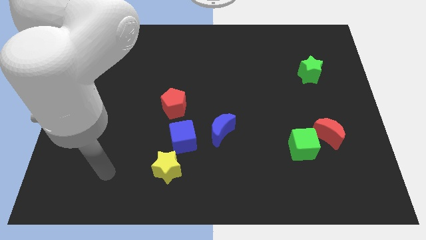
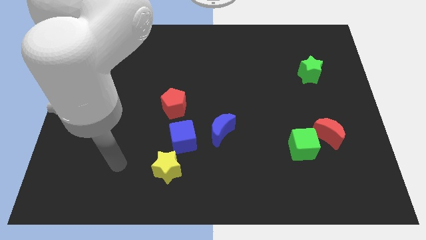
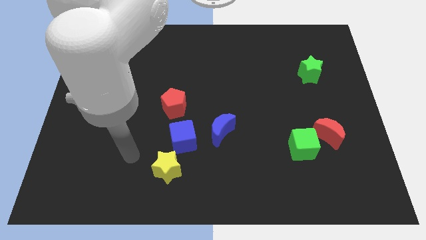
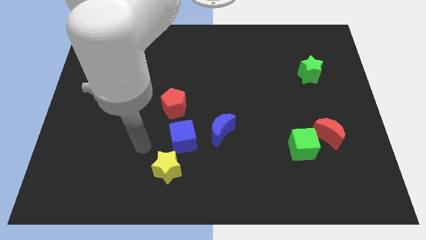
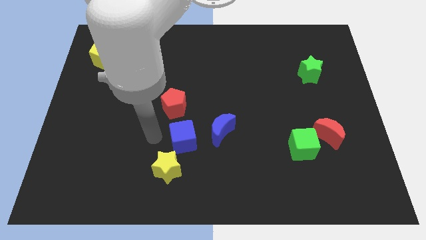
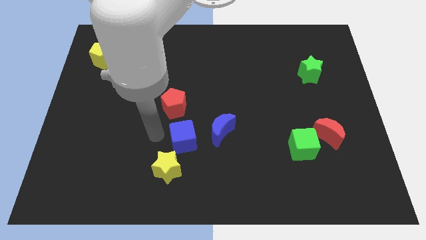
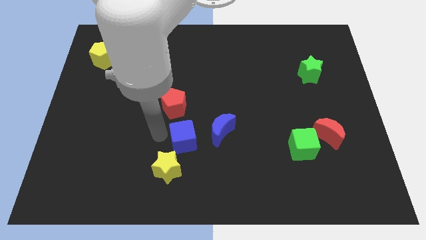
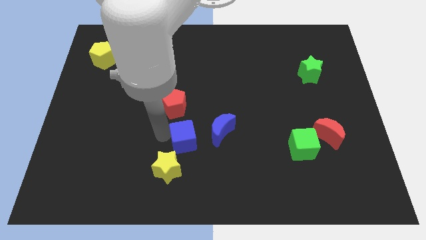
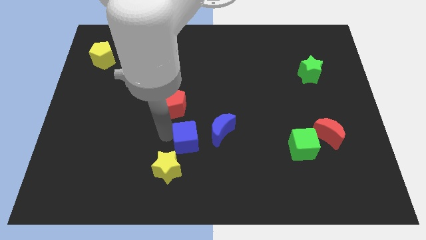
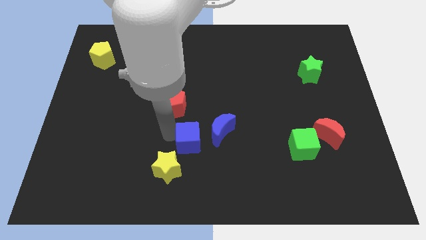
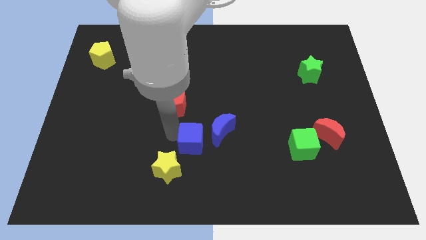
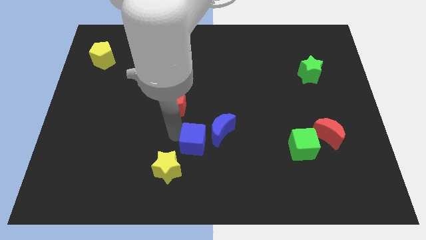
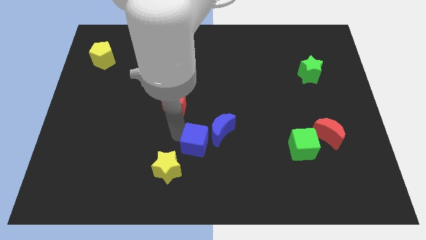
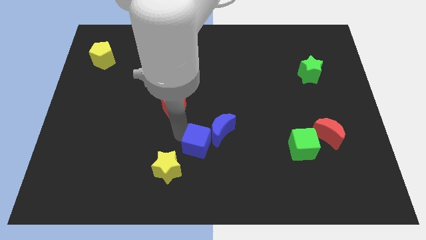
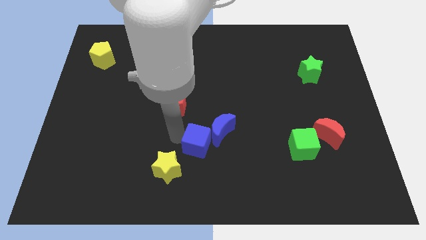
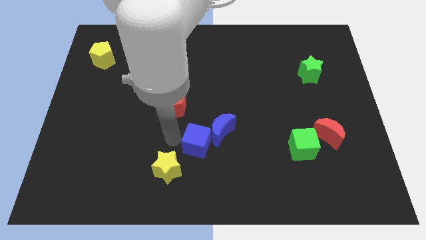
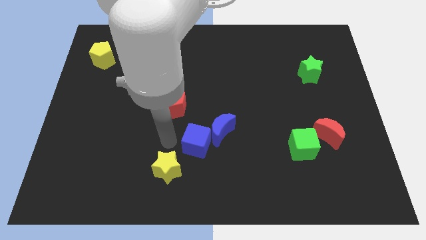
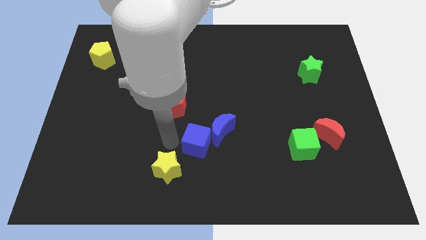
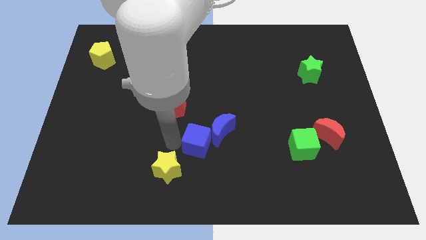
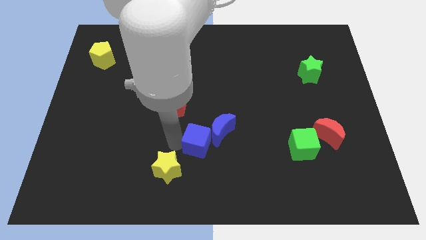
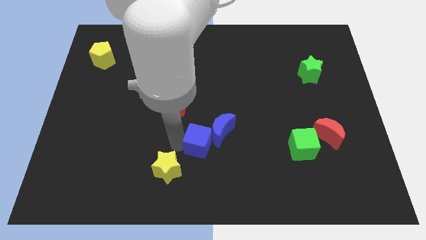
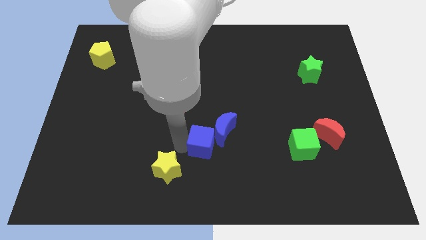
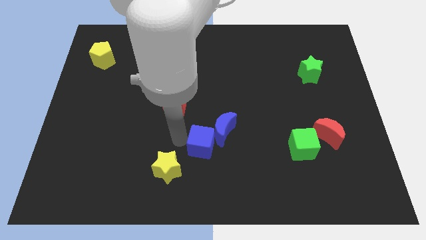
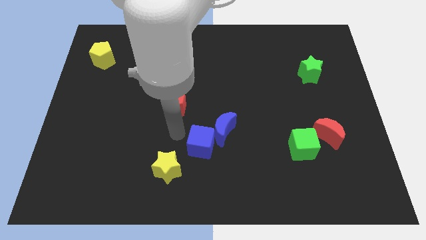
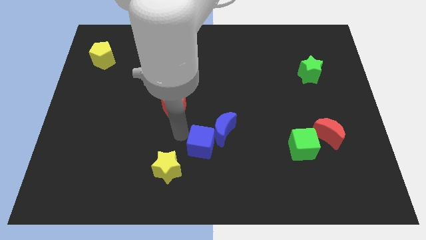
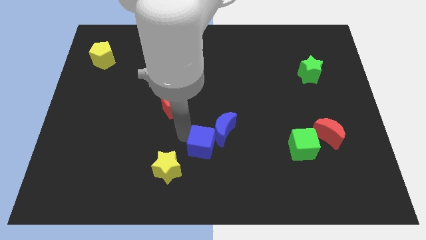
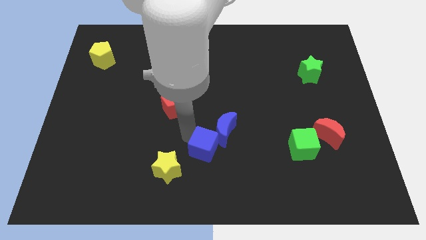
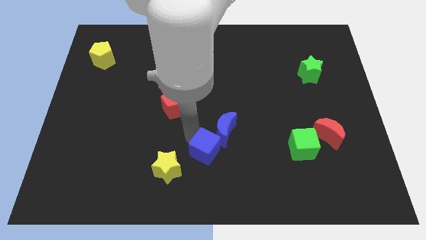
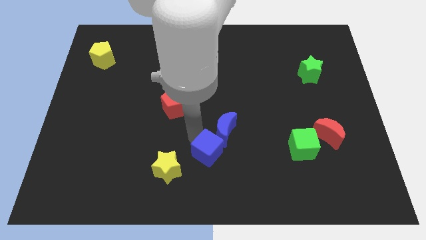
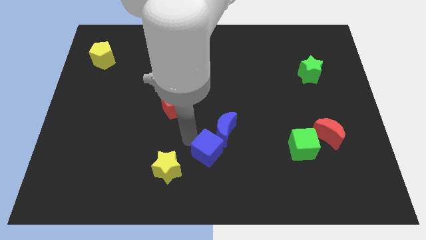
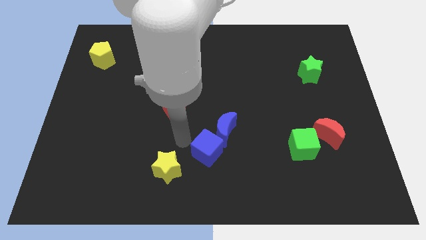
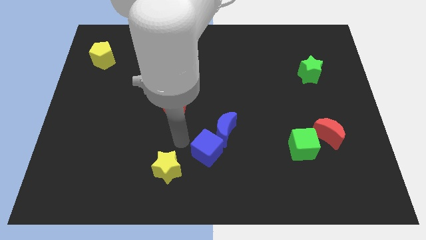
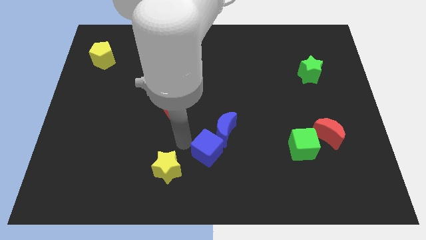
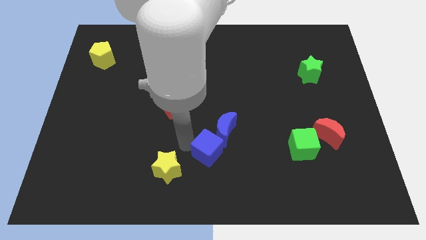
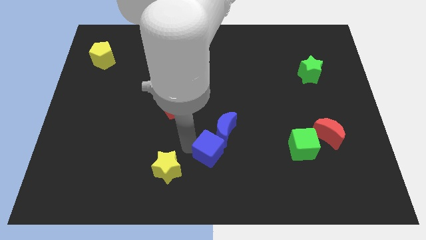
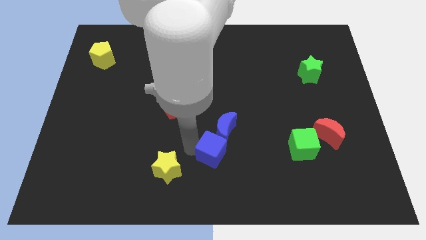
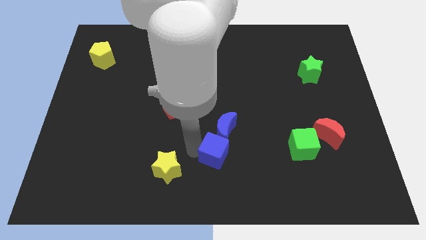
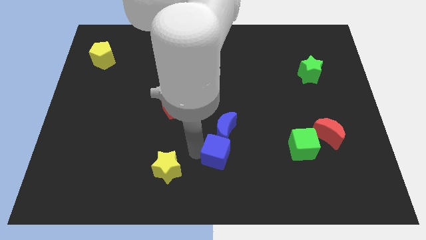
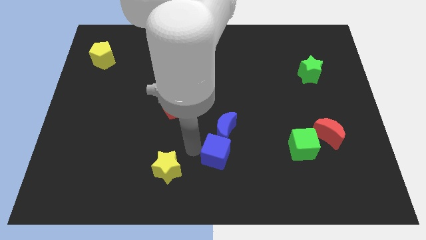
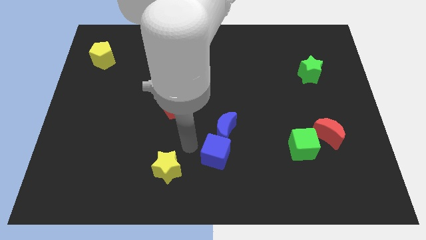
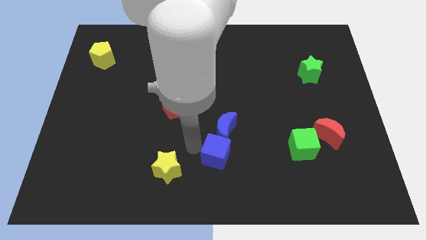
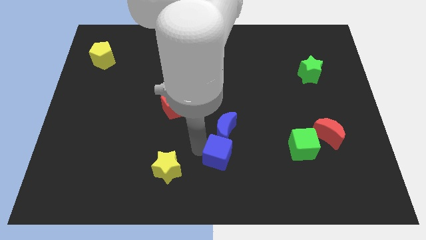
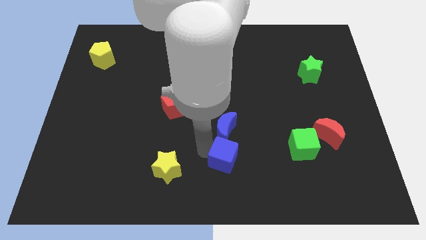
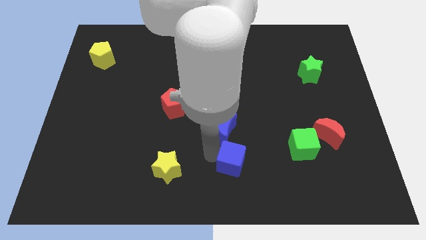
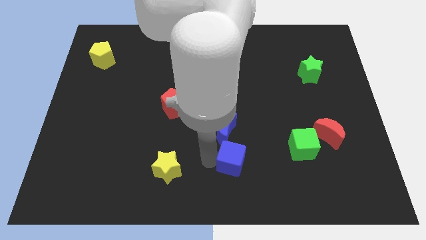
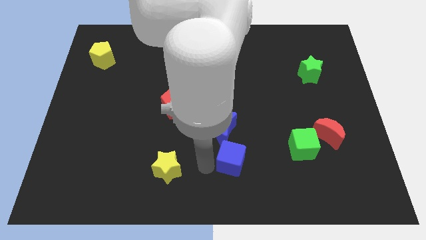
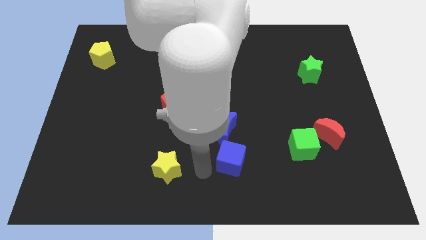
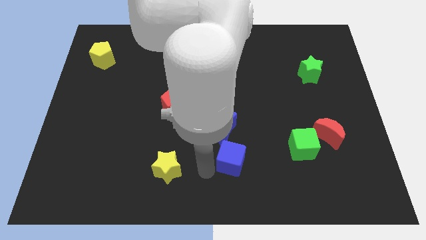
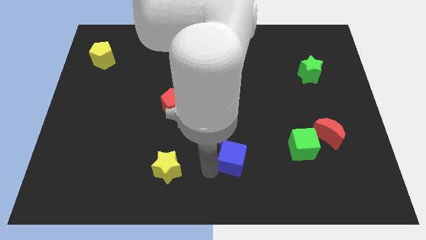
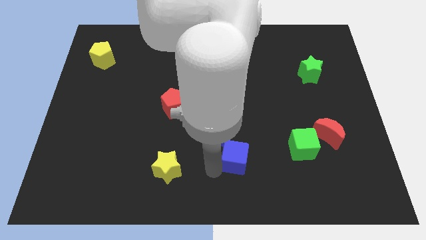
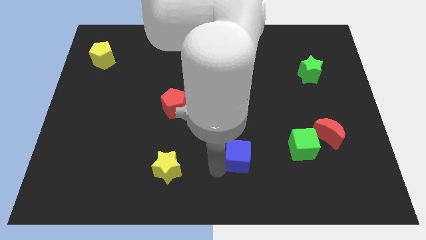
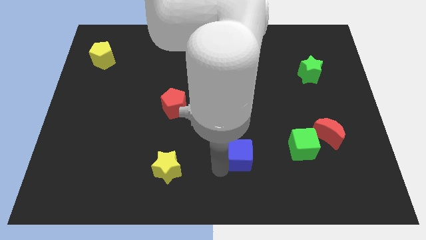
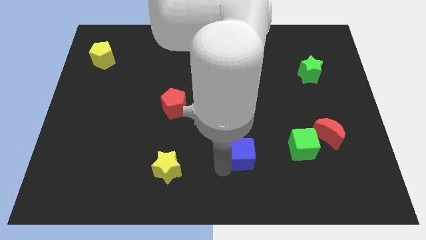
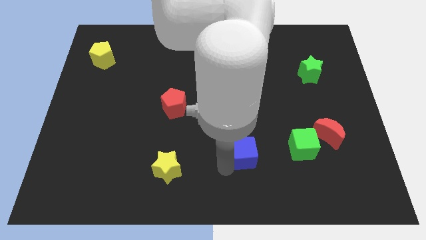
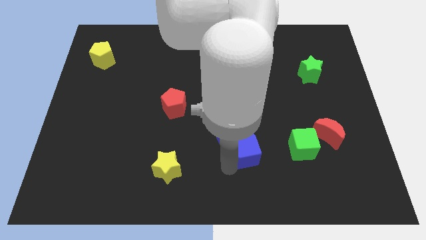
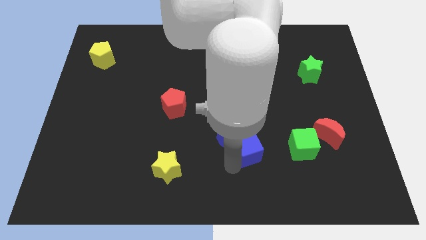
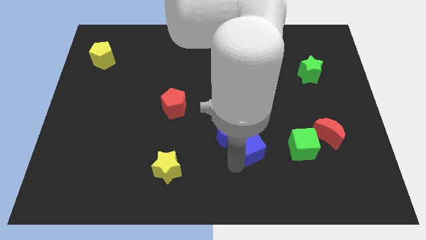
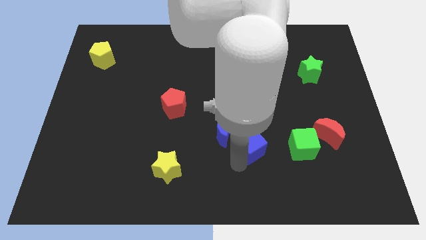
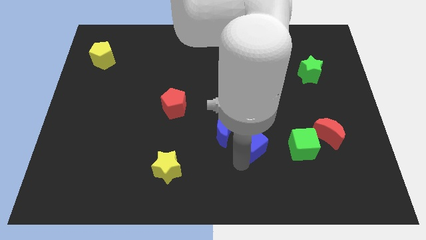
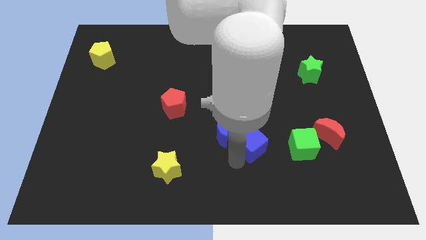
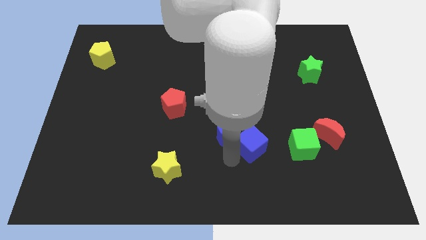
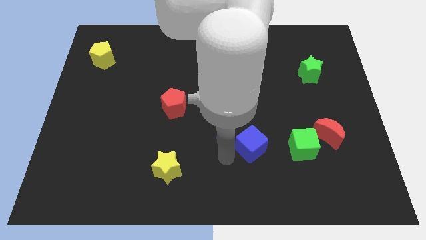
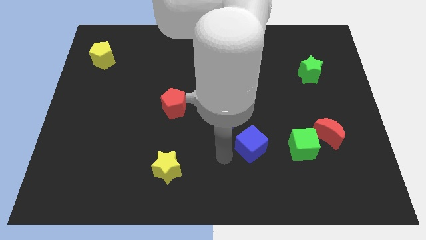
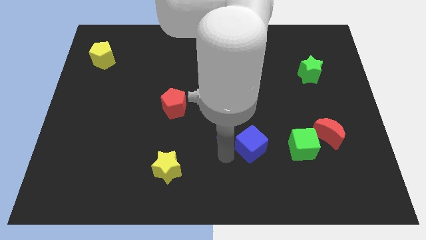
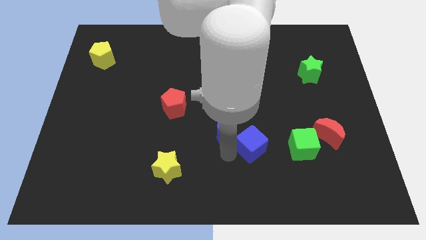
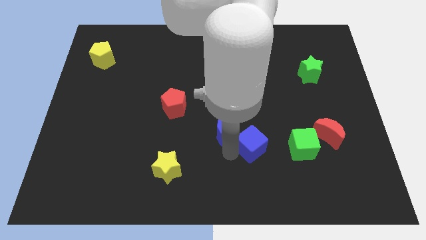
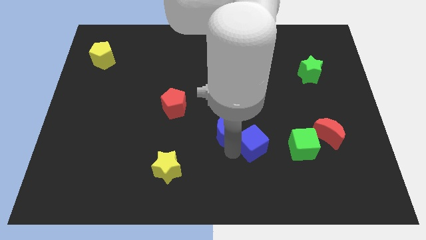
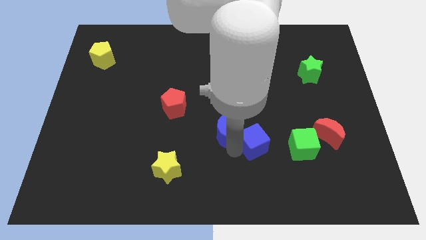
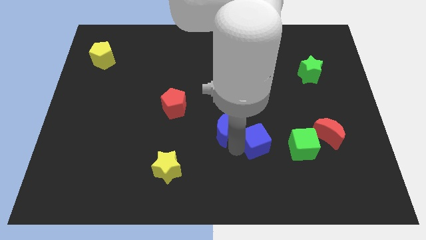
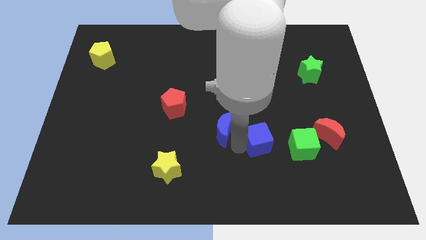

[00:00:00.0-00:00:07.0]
push the blue cube just left of the red moon
